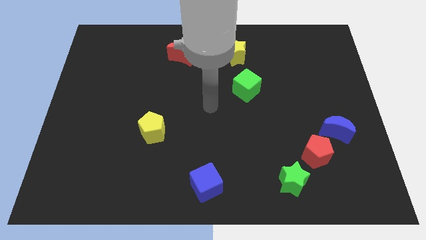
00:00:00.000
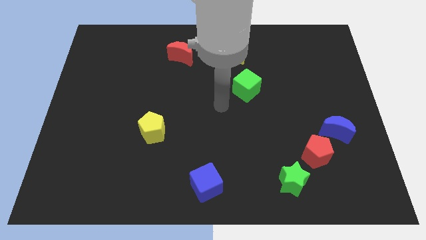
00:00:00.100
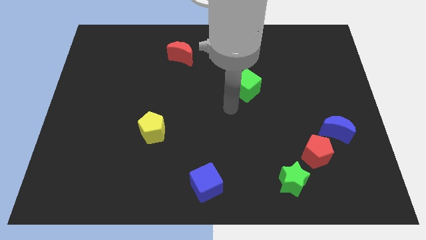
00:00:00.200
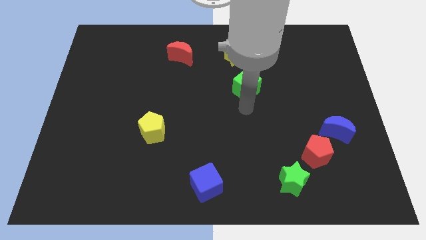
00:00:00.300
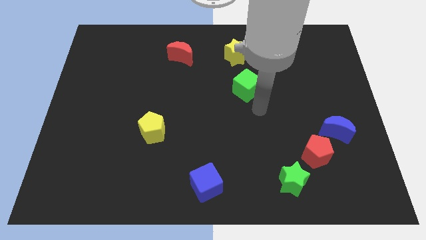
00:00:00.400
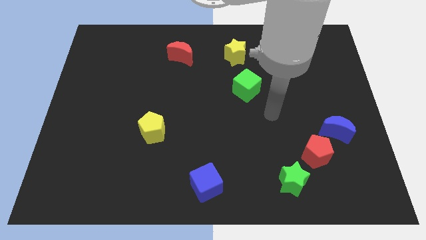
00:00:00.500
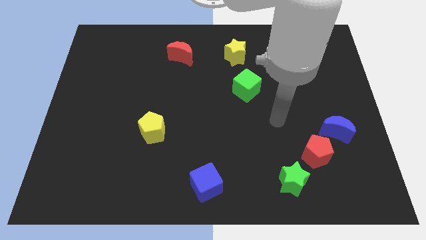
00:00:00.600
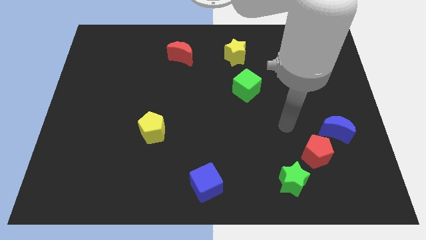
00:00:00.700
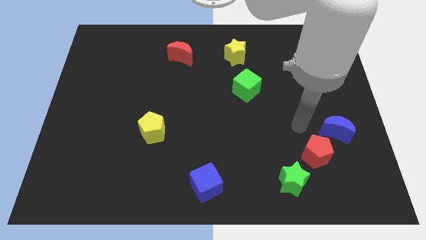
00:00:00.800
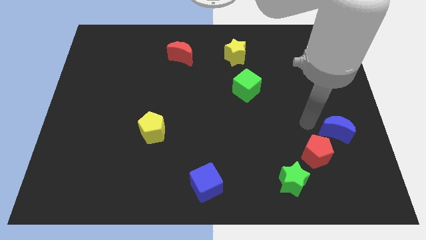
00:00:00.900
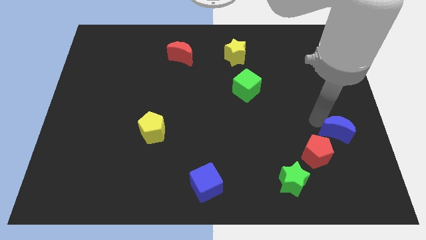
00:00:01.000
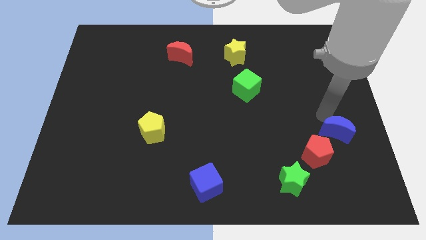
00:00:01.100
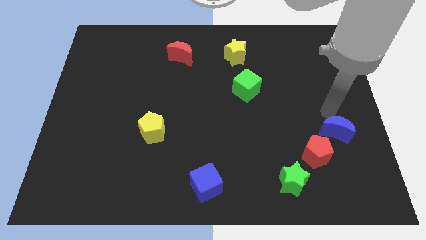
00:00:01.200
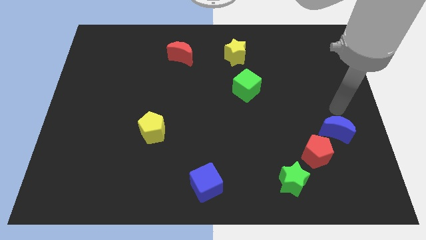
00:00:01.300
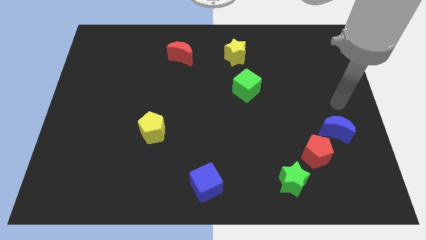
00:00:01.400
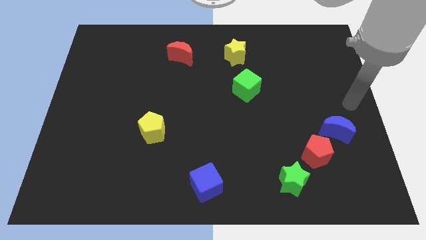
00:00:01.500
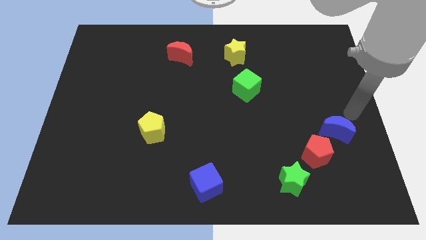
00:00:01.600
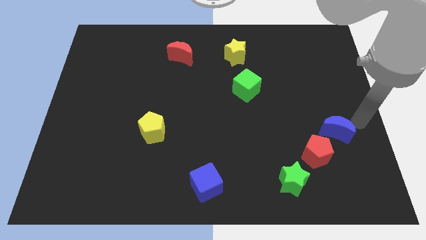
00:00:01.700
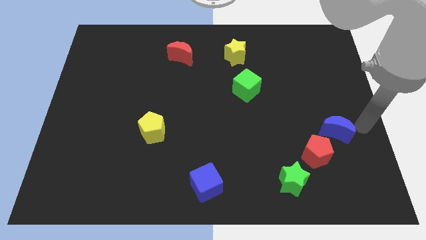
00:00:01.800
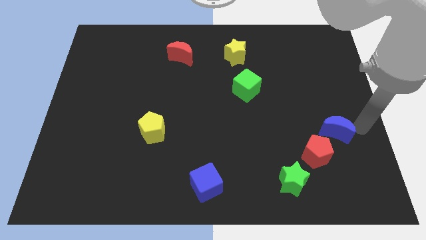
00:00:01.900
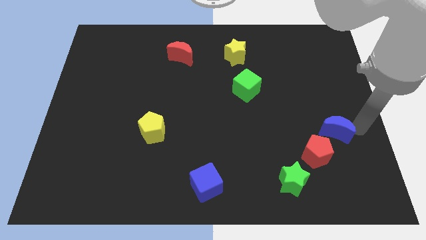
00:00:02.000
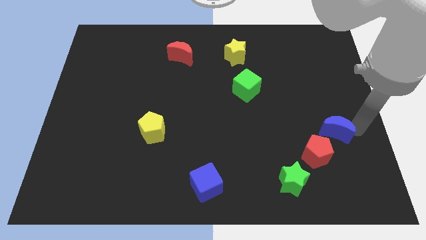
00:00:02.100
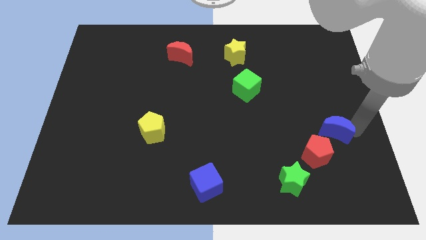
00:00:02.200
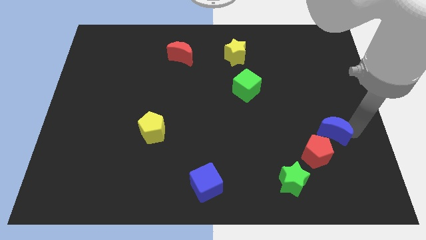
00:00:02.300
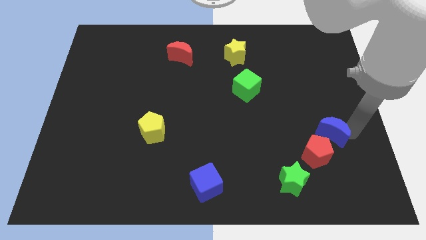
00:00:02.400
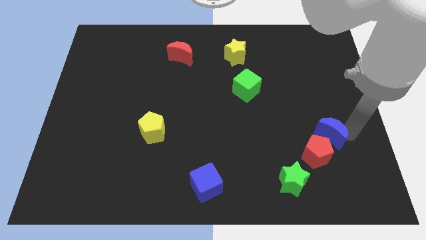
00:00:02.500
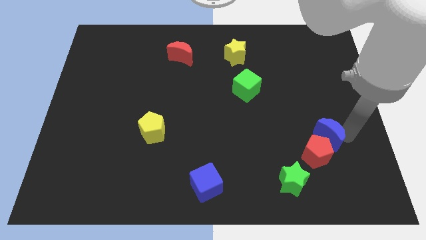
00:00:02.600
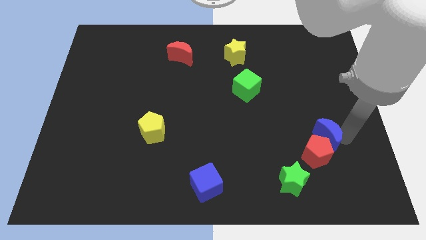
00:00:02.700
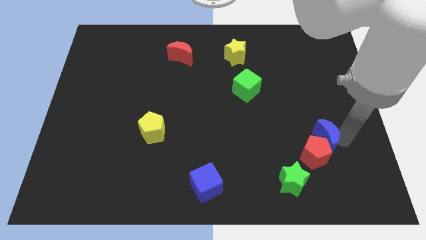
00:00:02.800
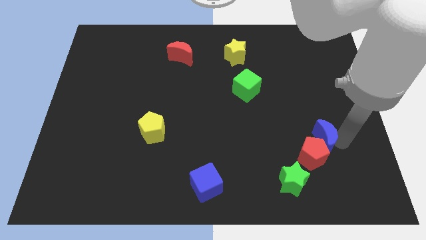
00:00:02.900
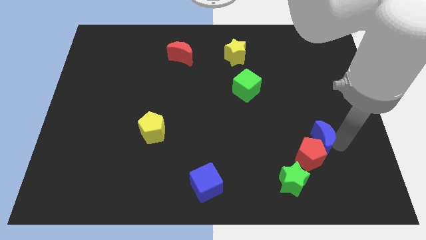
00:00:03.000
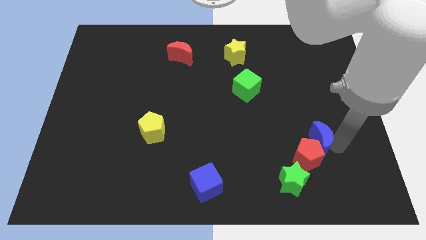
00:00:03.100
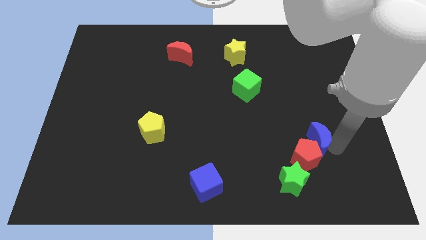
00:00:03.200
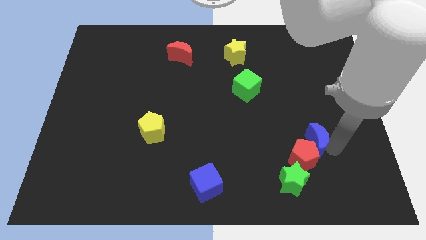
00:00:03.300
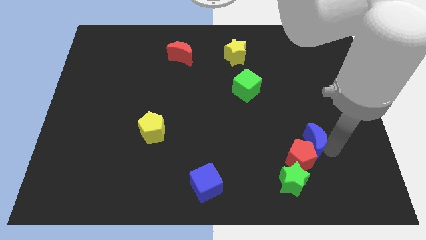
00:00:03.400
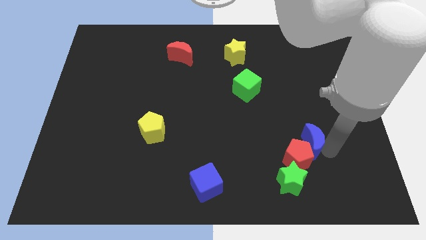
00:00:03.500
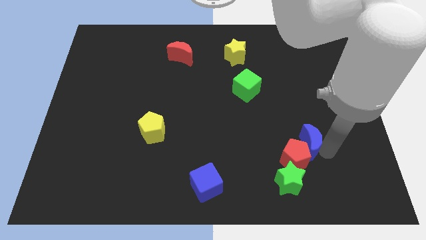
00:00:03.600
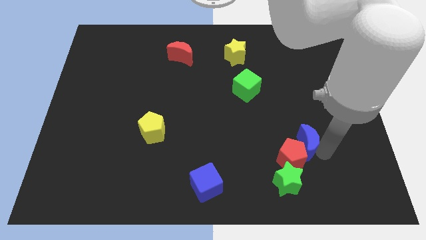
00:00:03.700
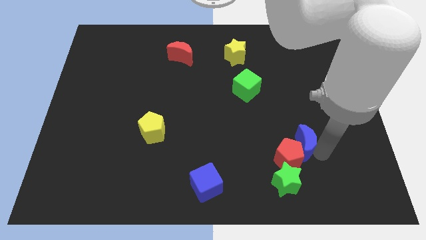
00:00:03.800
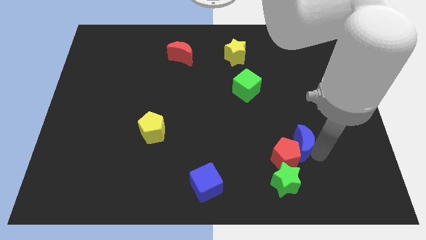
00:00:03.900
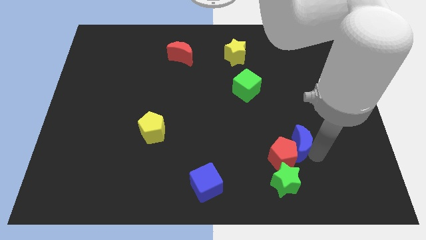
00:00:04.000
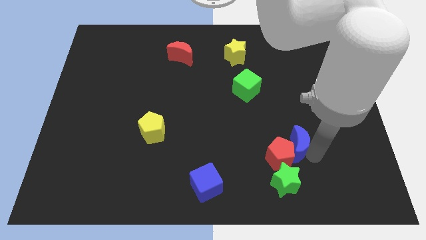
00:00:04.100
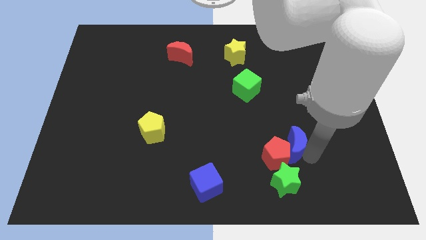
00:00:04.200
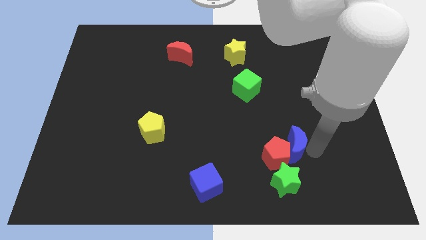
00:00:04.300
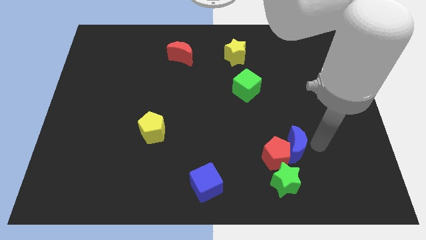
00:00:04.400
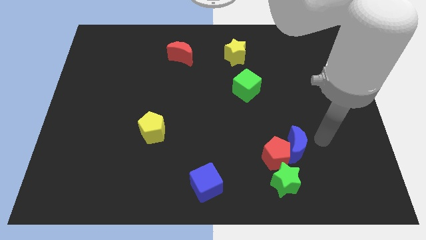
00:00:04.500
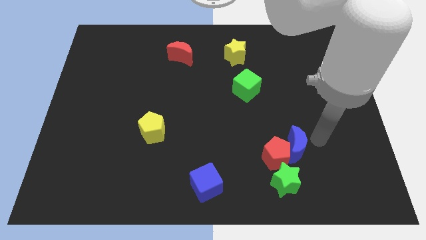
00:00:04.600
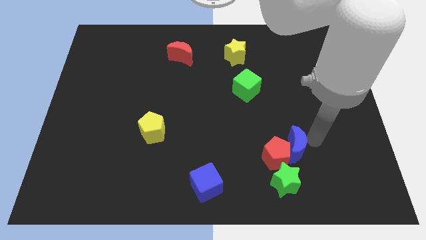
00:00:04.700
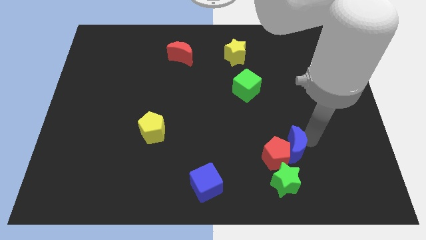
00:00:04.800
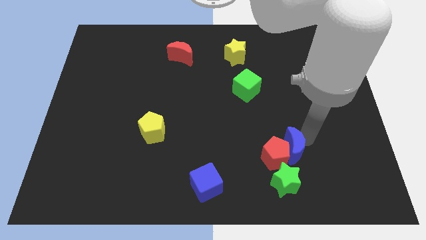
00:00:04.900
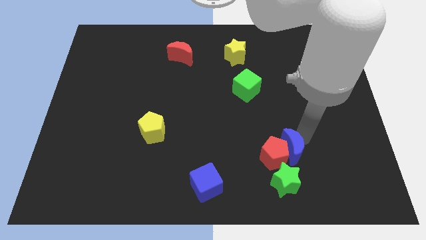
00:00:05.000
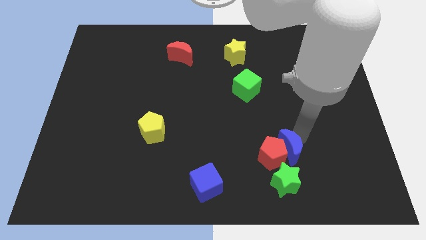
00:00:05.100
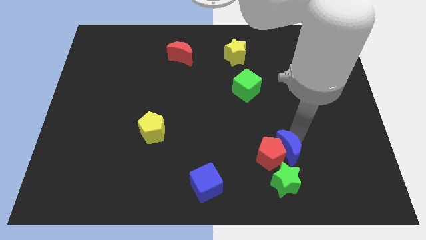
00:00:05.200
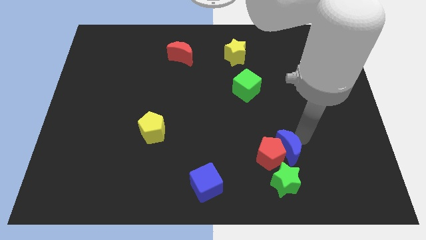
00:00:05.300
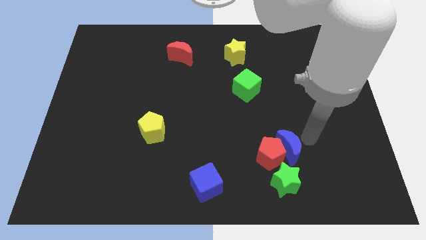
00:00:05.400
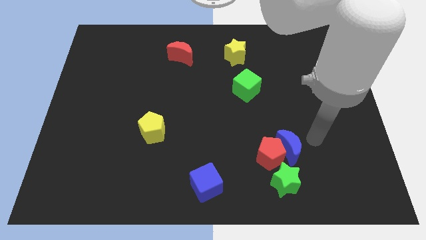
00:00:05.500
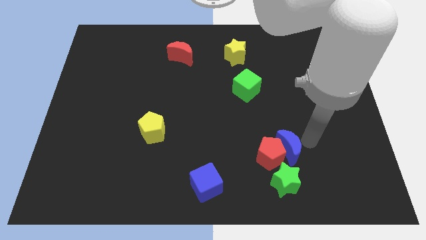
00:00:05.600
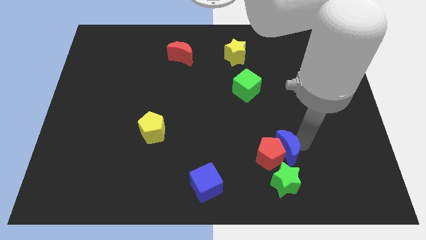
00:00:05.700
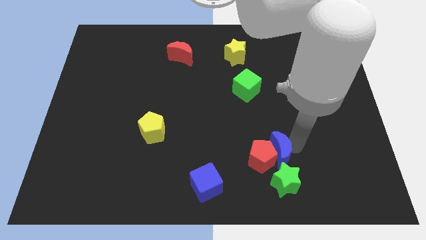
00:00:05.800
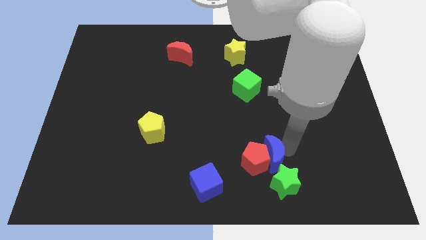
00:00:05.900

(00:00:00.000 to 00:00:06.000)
slide the blue moon to the top left side of the green star

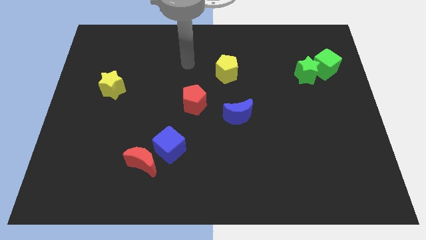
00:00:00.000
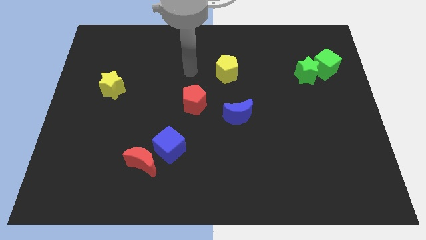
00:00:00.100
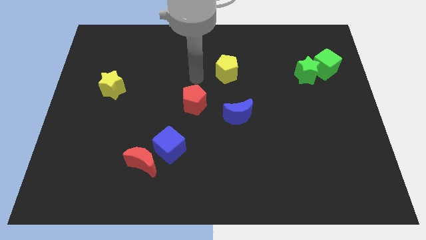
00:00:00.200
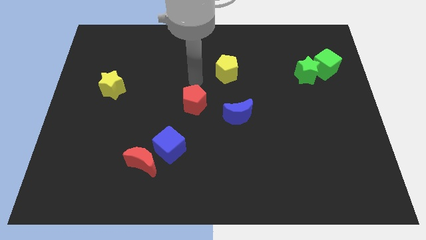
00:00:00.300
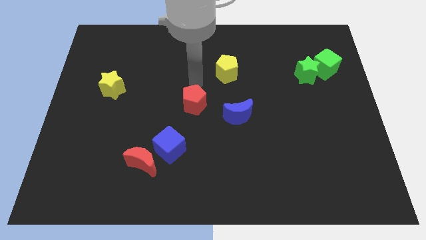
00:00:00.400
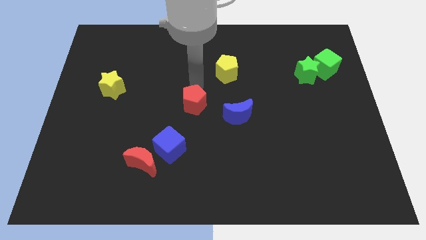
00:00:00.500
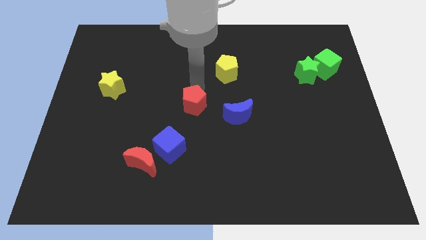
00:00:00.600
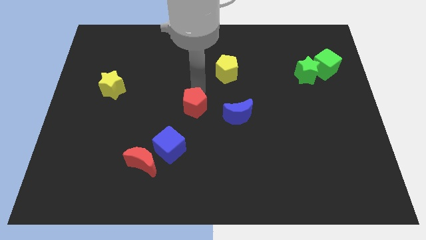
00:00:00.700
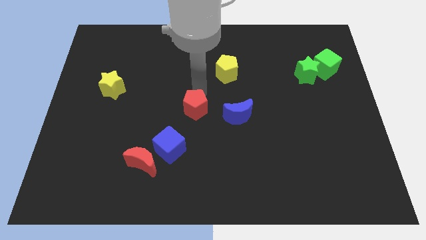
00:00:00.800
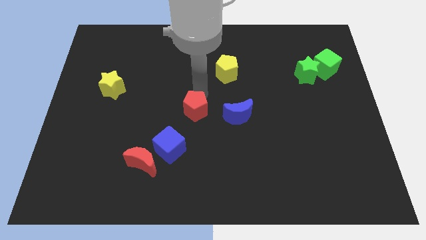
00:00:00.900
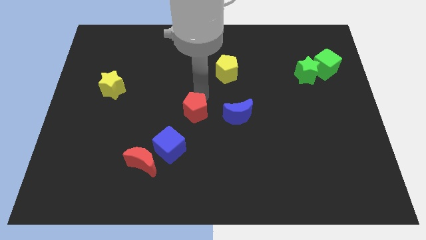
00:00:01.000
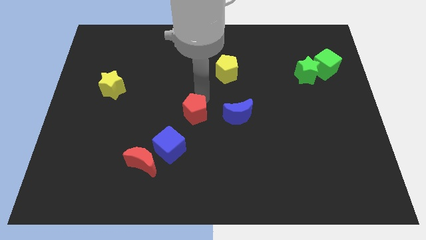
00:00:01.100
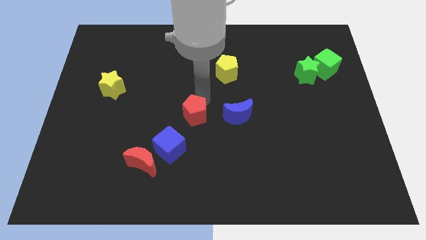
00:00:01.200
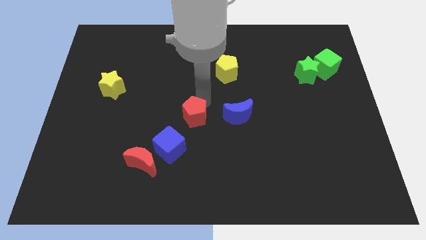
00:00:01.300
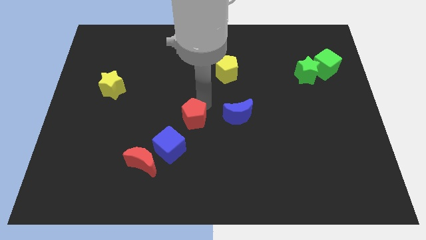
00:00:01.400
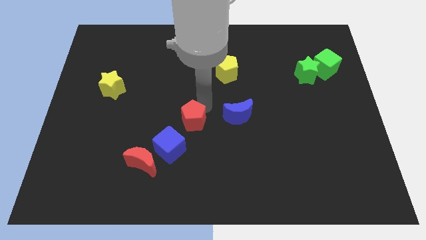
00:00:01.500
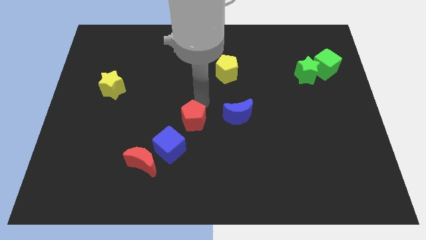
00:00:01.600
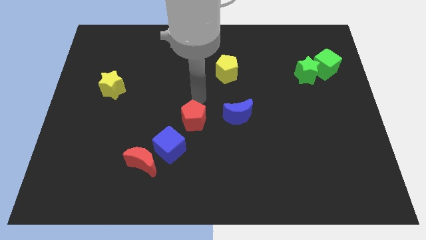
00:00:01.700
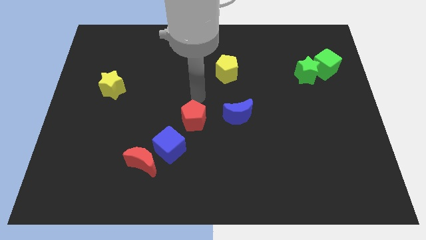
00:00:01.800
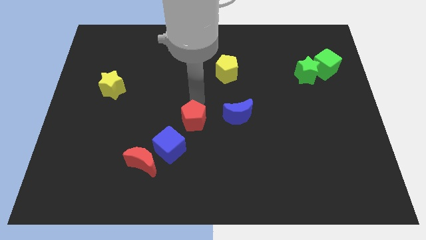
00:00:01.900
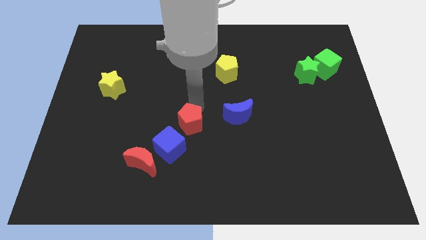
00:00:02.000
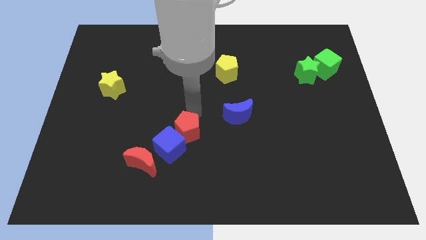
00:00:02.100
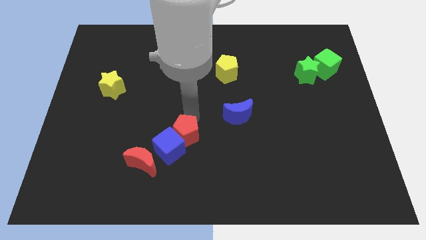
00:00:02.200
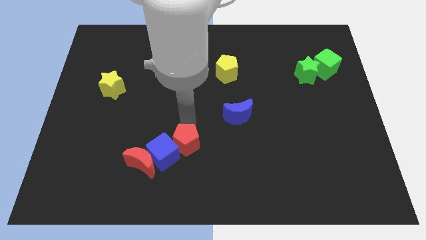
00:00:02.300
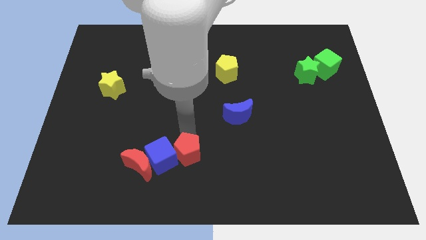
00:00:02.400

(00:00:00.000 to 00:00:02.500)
push the red pentagon to the bottom right of the blue cube
